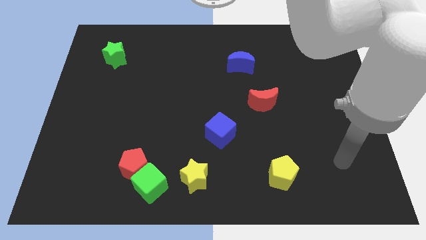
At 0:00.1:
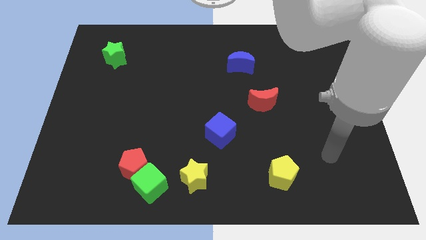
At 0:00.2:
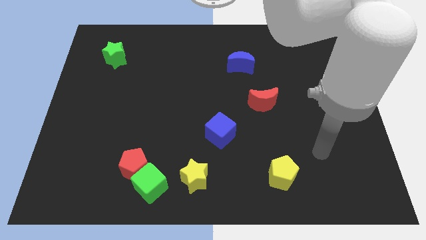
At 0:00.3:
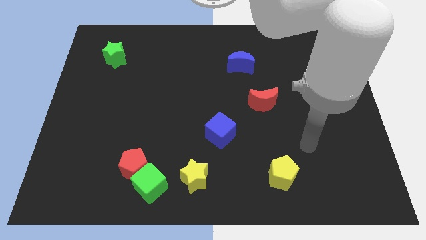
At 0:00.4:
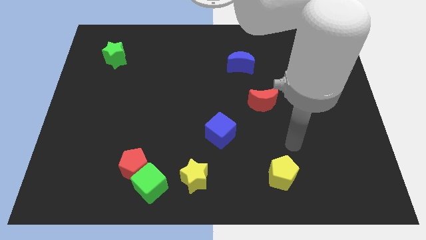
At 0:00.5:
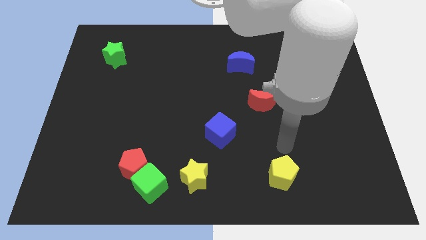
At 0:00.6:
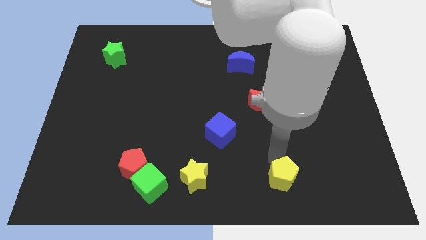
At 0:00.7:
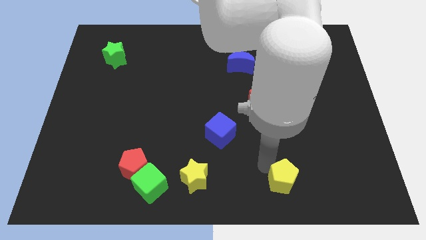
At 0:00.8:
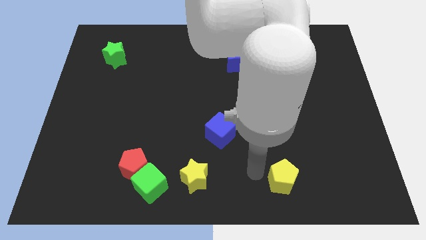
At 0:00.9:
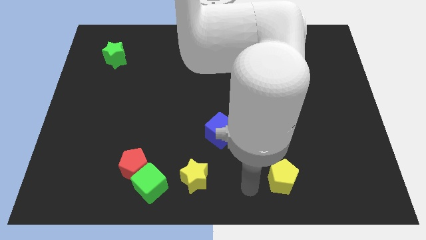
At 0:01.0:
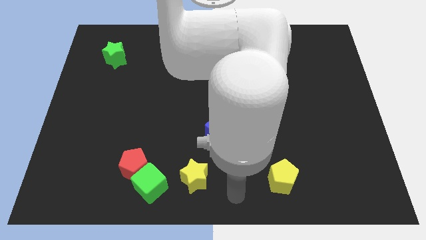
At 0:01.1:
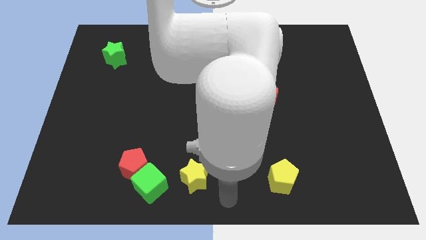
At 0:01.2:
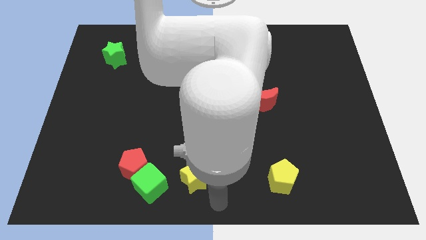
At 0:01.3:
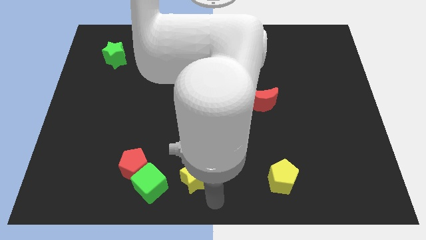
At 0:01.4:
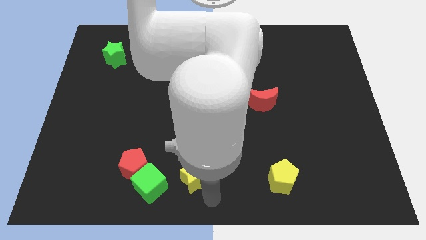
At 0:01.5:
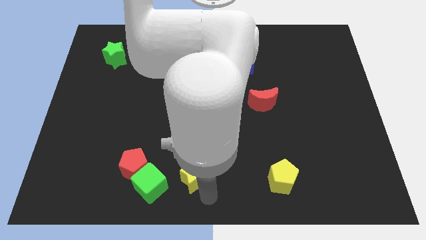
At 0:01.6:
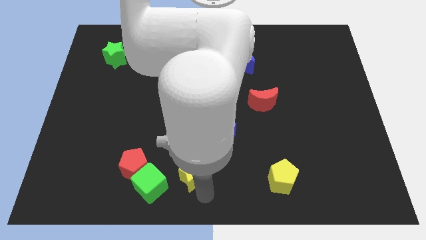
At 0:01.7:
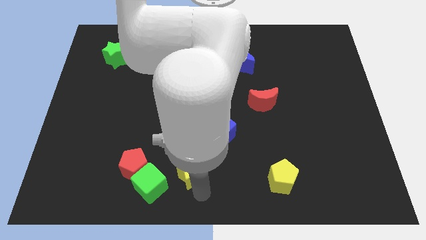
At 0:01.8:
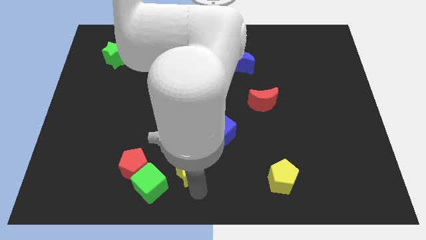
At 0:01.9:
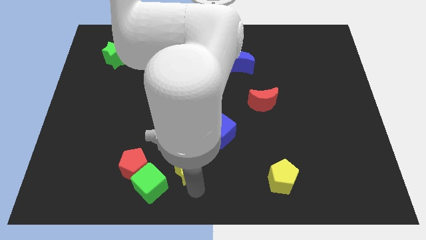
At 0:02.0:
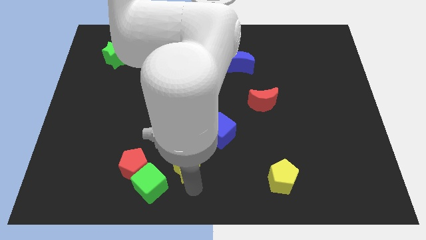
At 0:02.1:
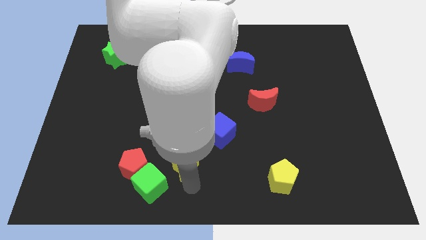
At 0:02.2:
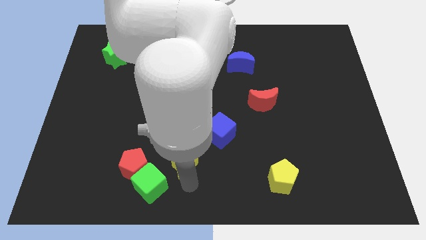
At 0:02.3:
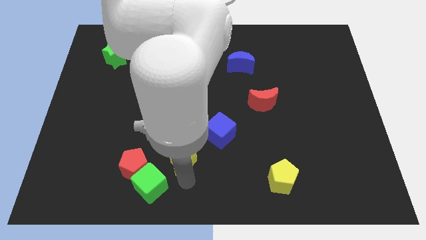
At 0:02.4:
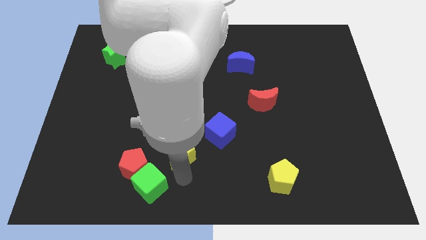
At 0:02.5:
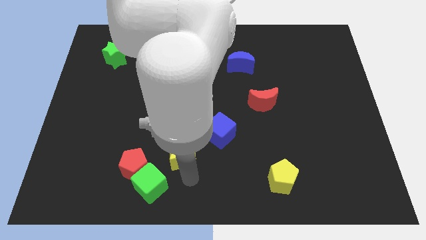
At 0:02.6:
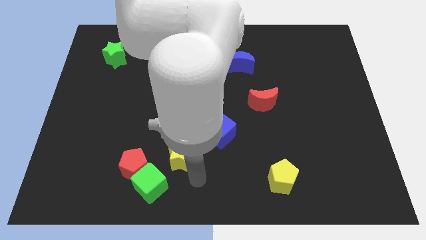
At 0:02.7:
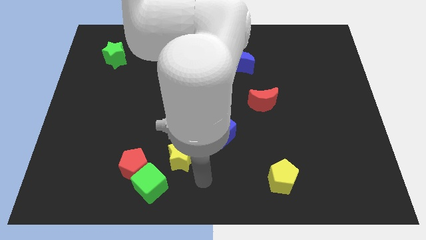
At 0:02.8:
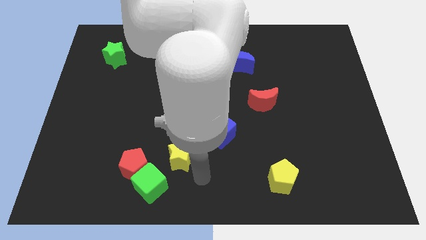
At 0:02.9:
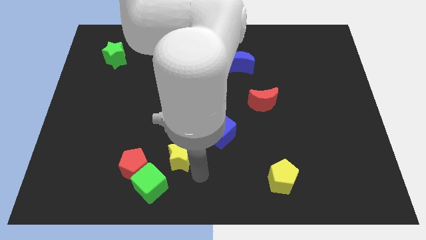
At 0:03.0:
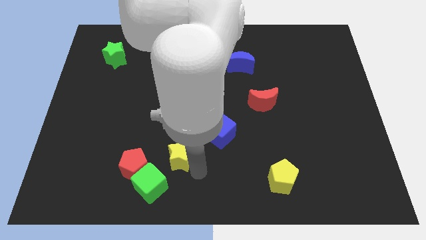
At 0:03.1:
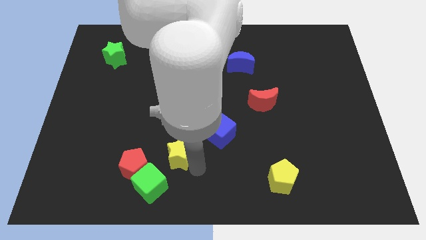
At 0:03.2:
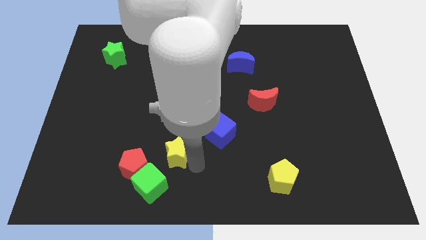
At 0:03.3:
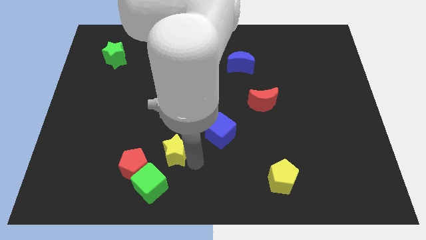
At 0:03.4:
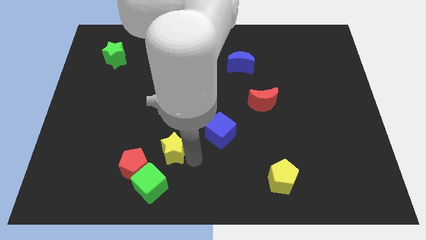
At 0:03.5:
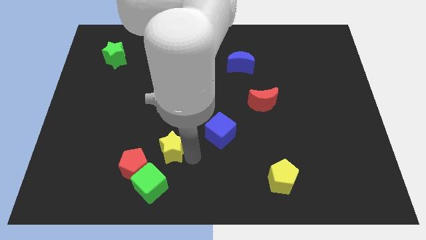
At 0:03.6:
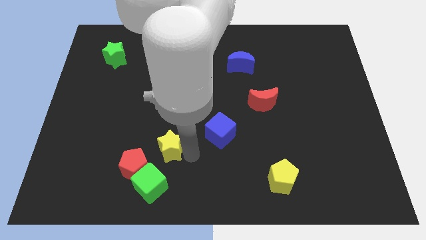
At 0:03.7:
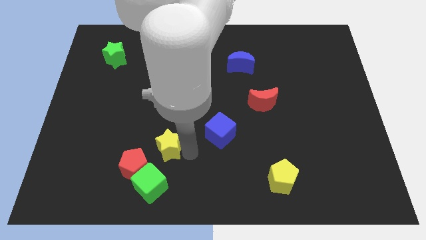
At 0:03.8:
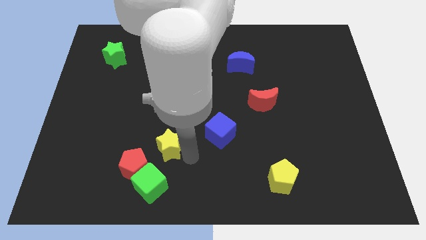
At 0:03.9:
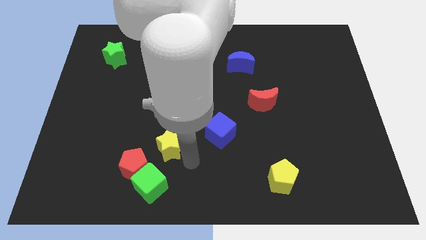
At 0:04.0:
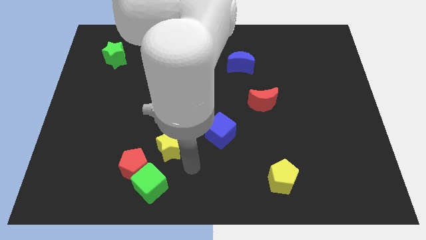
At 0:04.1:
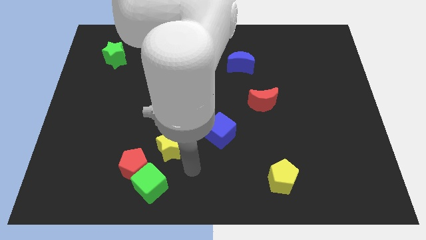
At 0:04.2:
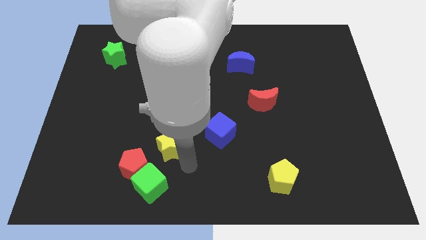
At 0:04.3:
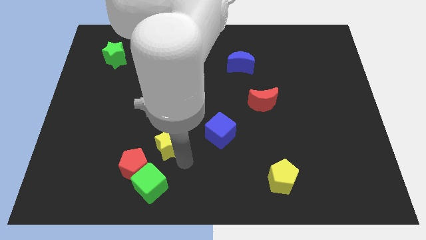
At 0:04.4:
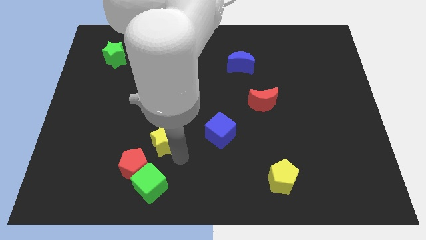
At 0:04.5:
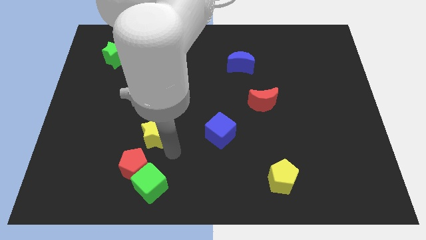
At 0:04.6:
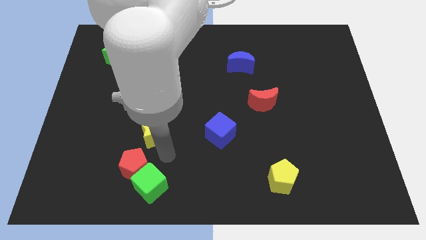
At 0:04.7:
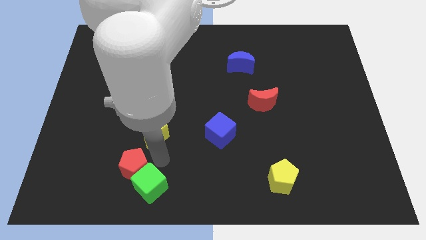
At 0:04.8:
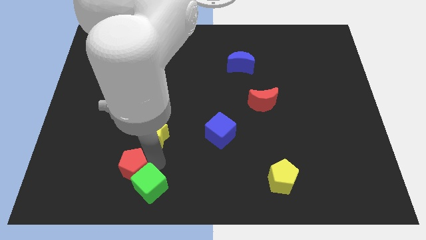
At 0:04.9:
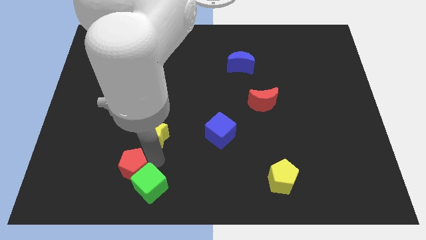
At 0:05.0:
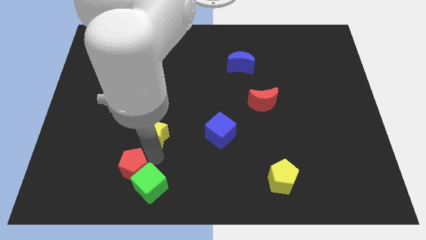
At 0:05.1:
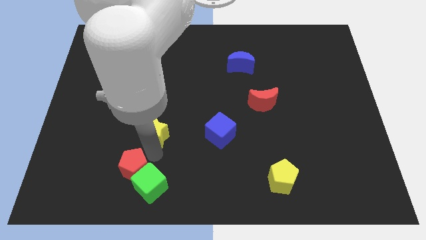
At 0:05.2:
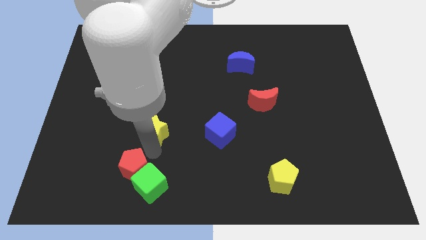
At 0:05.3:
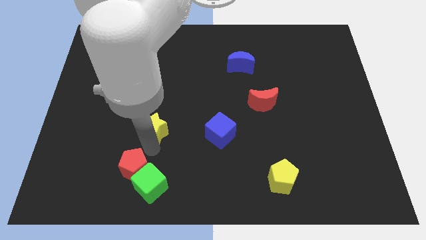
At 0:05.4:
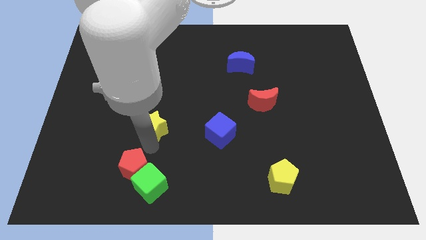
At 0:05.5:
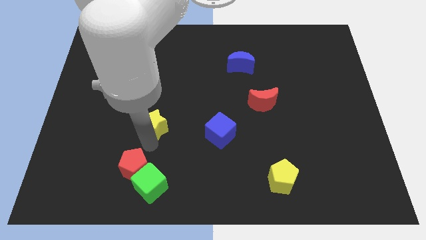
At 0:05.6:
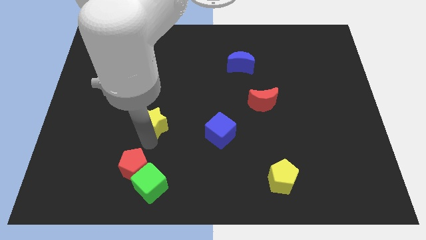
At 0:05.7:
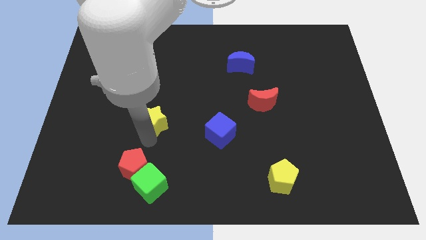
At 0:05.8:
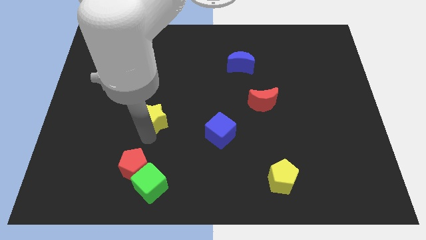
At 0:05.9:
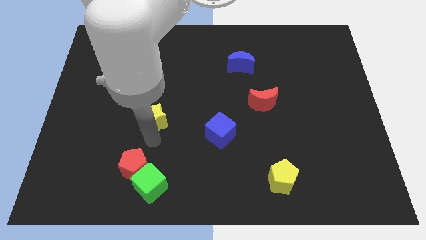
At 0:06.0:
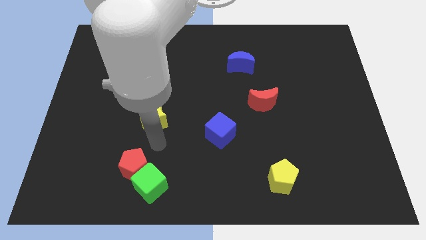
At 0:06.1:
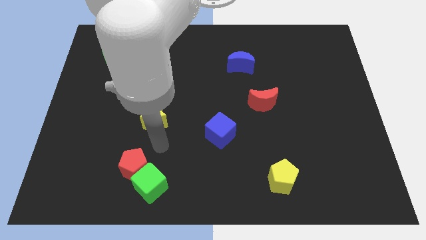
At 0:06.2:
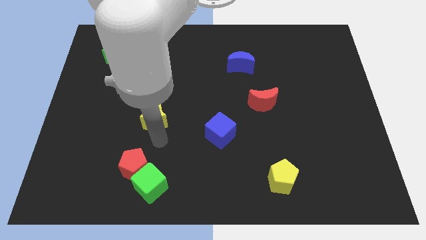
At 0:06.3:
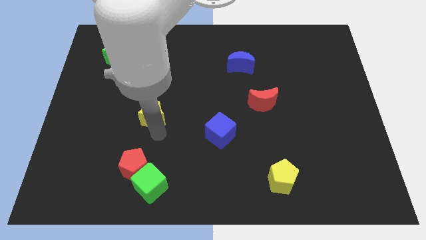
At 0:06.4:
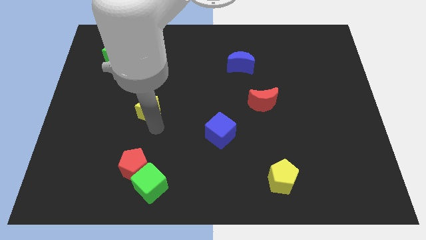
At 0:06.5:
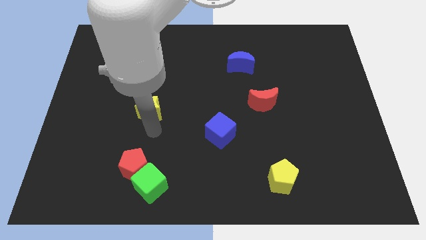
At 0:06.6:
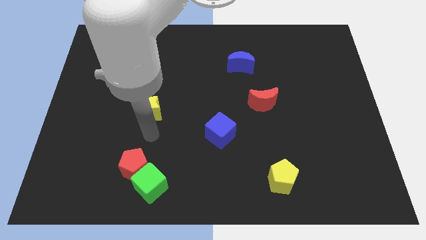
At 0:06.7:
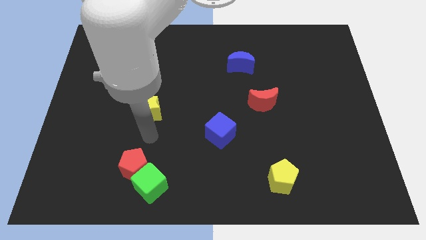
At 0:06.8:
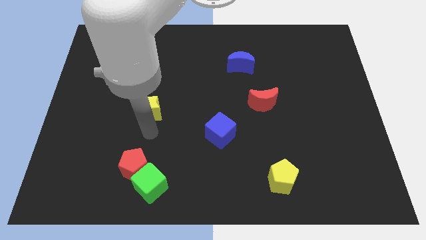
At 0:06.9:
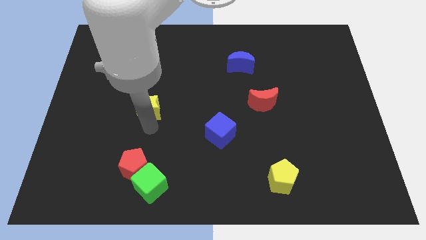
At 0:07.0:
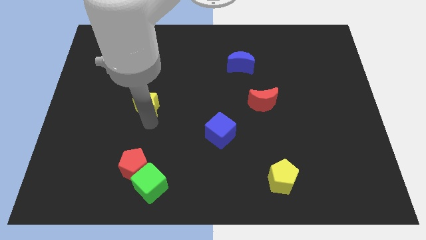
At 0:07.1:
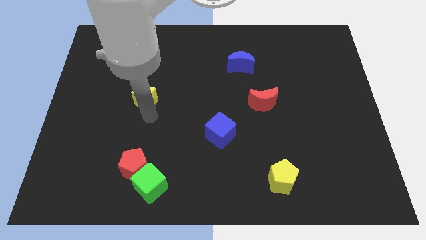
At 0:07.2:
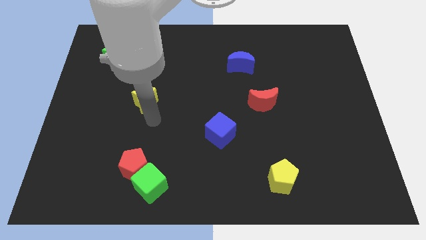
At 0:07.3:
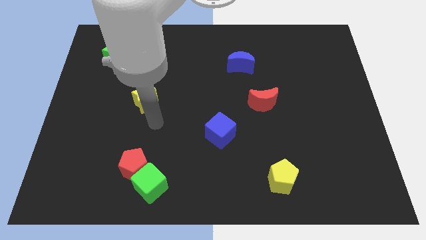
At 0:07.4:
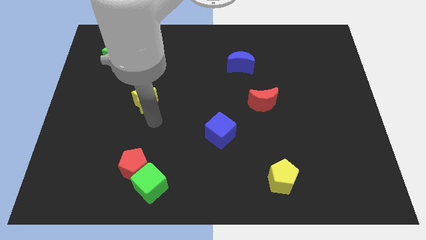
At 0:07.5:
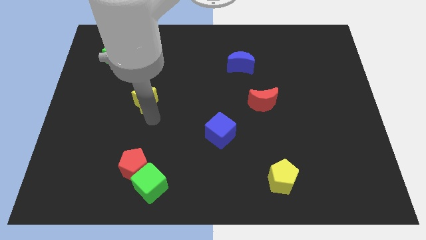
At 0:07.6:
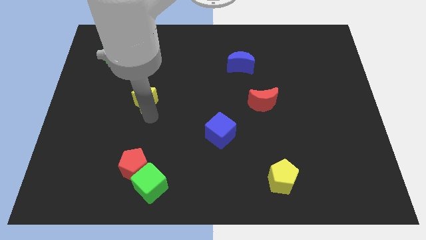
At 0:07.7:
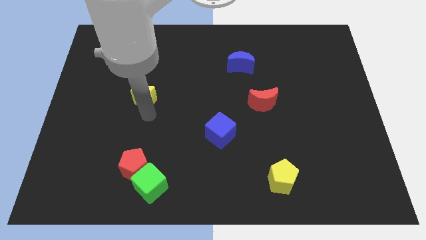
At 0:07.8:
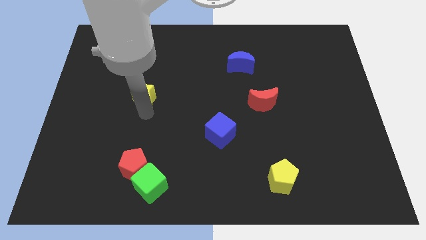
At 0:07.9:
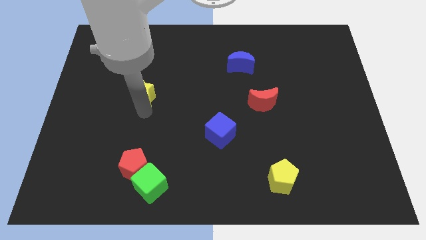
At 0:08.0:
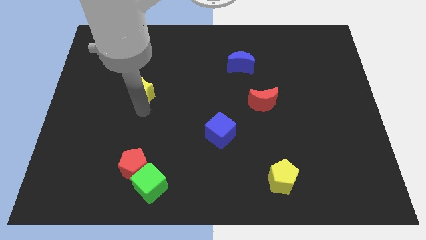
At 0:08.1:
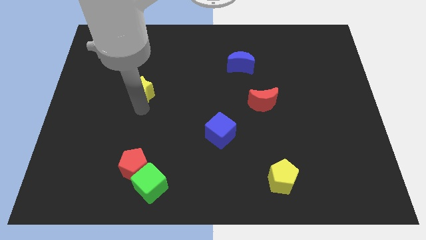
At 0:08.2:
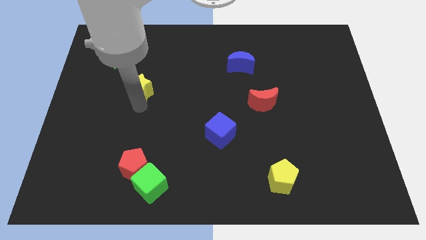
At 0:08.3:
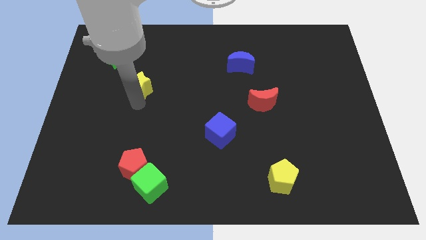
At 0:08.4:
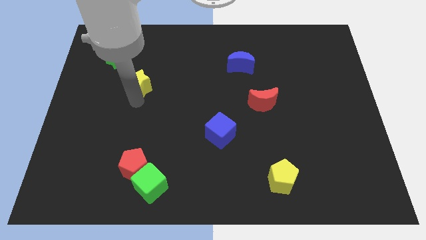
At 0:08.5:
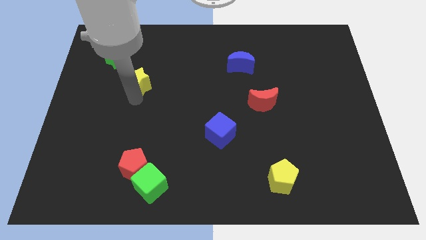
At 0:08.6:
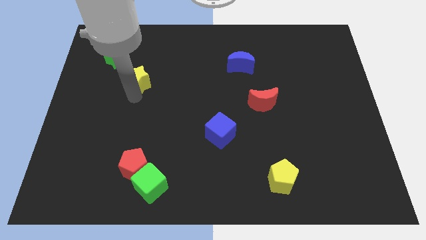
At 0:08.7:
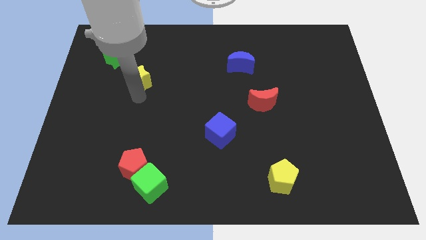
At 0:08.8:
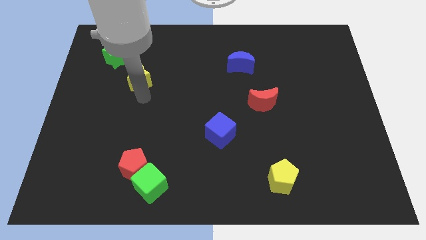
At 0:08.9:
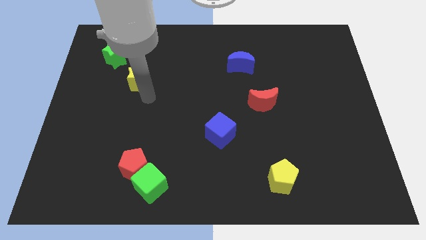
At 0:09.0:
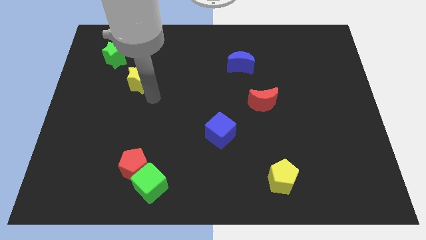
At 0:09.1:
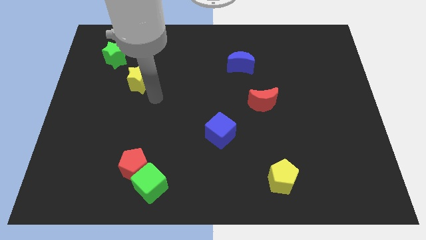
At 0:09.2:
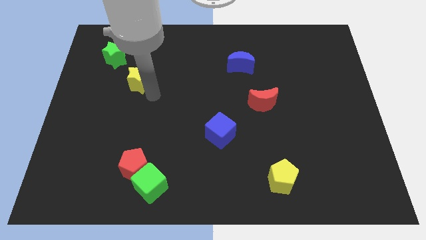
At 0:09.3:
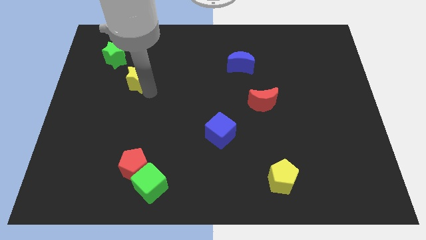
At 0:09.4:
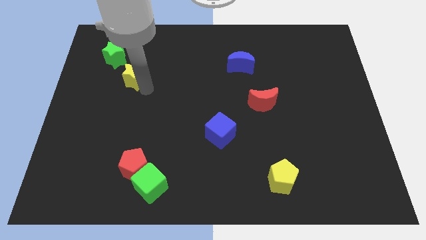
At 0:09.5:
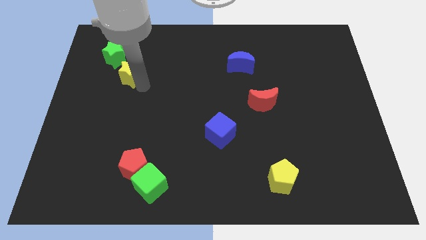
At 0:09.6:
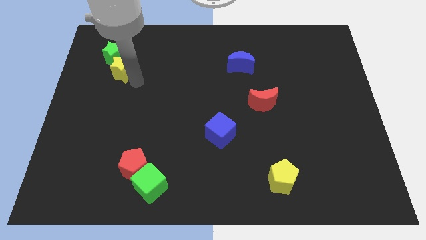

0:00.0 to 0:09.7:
push the yellow star next to the green star
